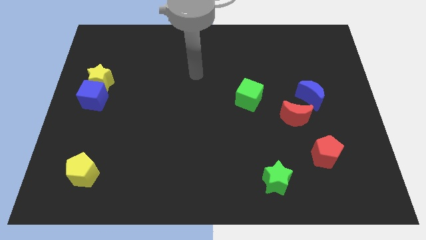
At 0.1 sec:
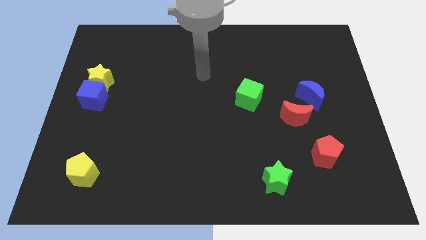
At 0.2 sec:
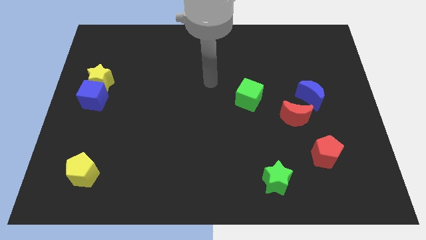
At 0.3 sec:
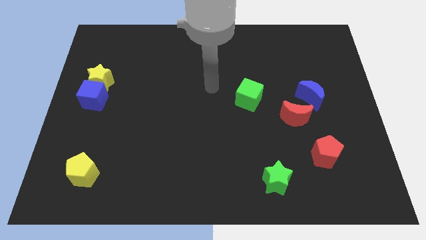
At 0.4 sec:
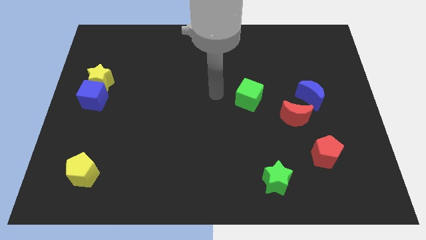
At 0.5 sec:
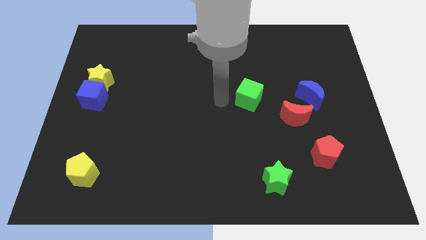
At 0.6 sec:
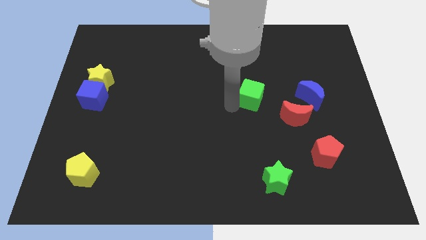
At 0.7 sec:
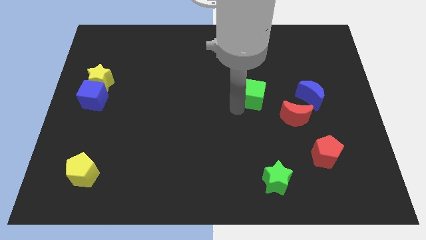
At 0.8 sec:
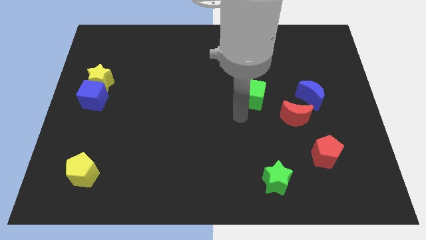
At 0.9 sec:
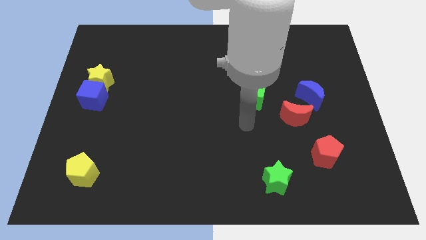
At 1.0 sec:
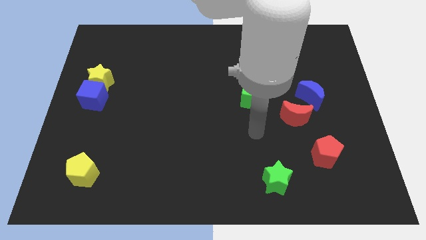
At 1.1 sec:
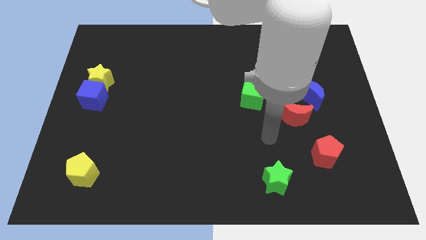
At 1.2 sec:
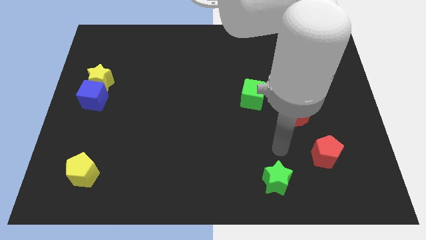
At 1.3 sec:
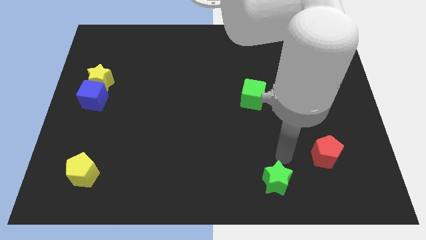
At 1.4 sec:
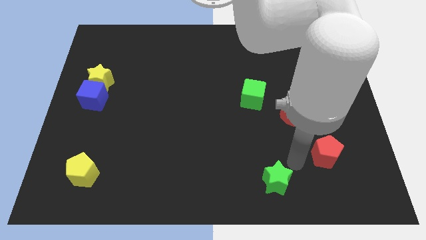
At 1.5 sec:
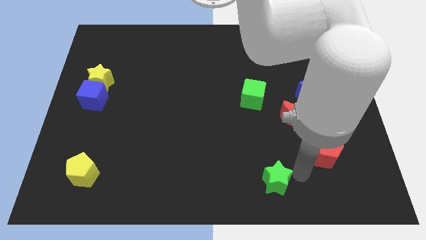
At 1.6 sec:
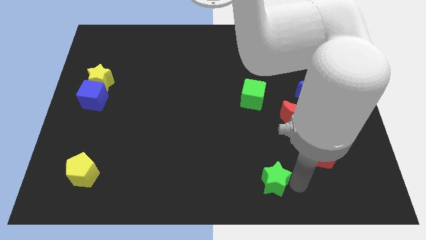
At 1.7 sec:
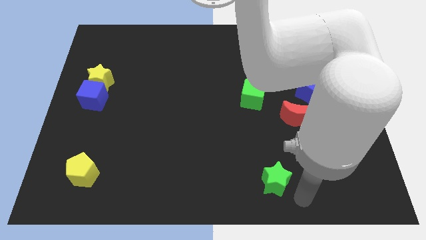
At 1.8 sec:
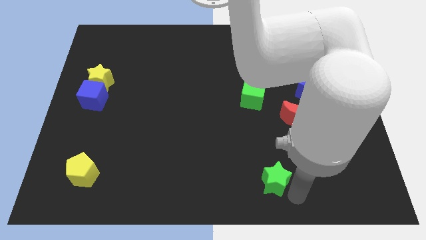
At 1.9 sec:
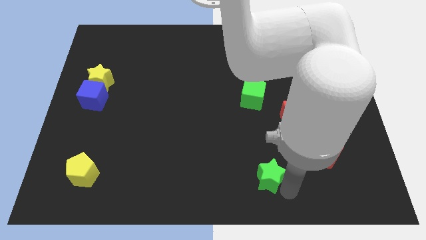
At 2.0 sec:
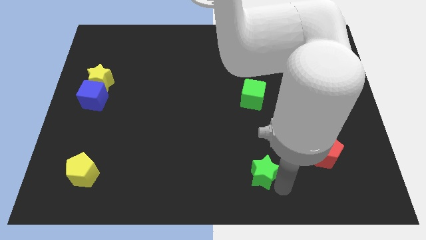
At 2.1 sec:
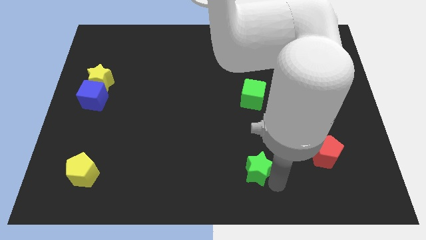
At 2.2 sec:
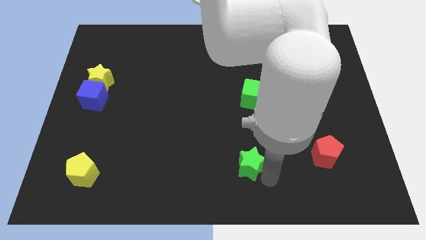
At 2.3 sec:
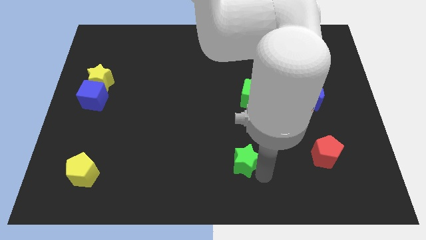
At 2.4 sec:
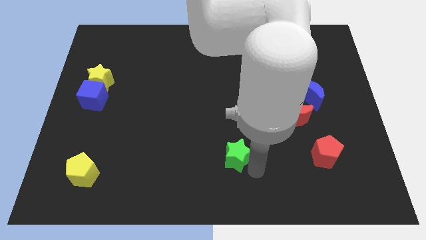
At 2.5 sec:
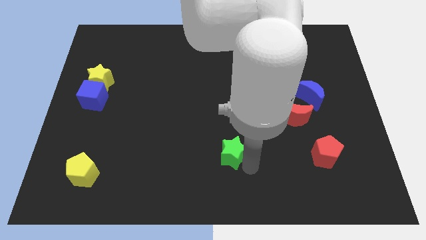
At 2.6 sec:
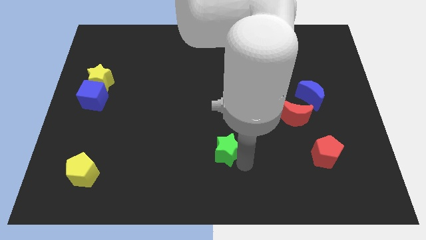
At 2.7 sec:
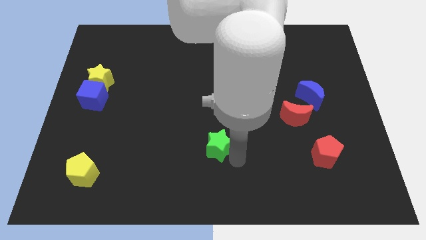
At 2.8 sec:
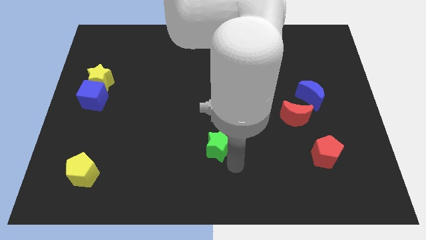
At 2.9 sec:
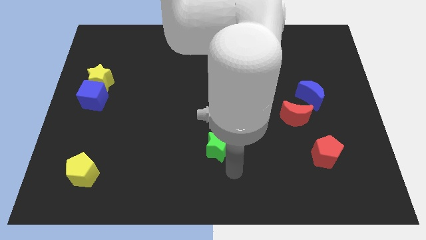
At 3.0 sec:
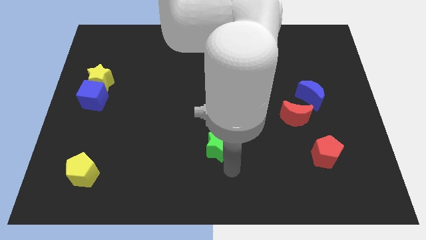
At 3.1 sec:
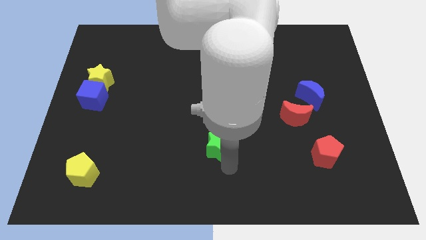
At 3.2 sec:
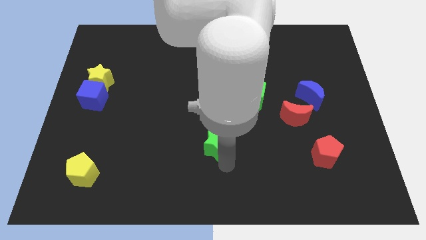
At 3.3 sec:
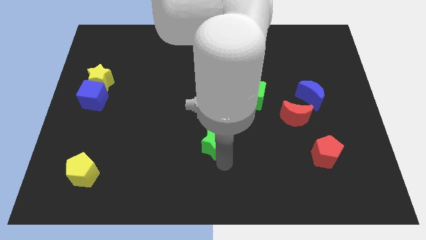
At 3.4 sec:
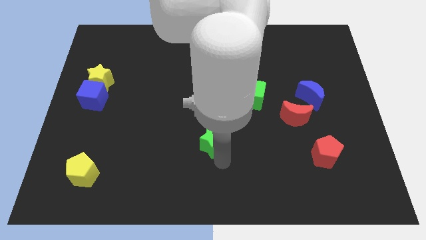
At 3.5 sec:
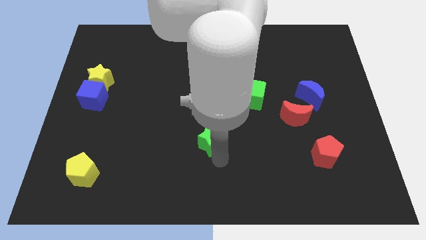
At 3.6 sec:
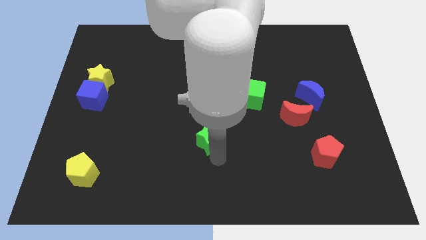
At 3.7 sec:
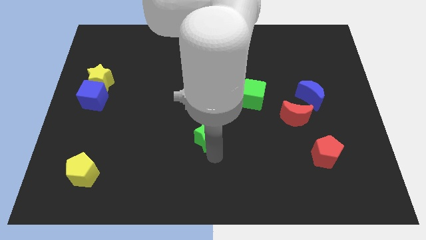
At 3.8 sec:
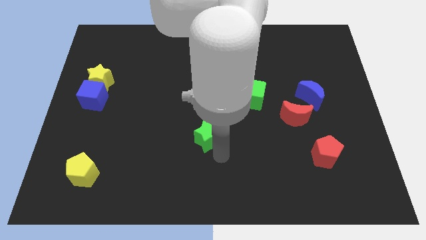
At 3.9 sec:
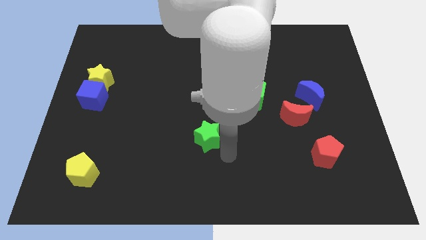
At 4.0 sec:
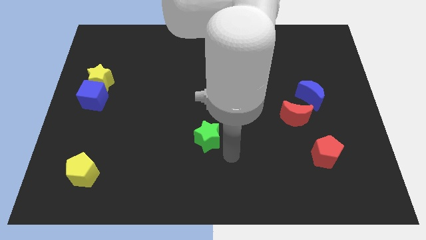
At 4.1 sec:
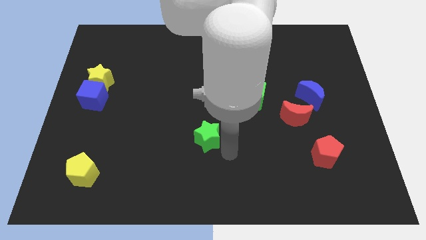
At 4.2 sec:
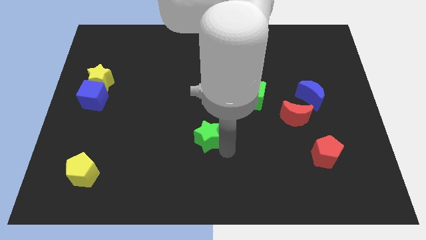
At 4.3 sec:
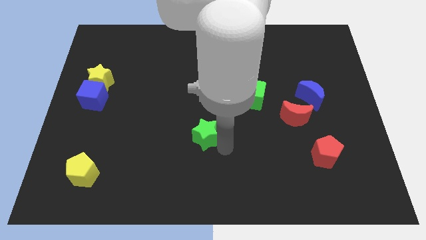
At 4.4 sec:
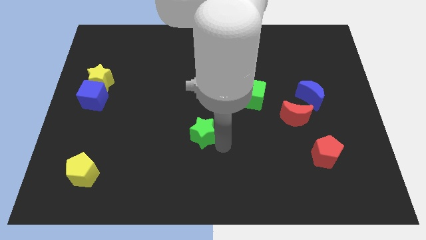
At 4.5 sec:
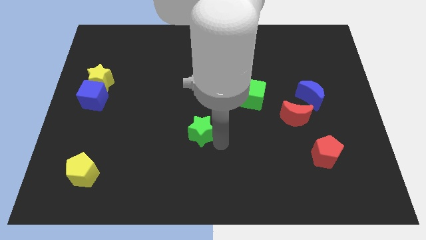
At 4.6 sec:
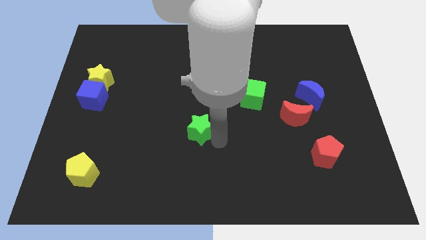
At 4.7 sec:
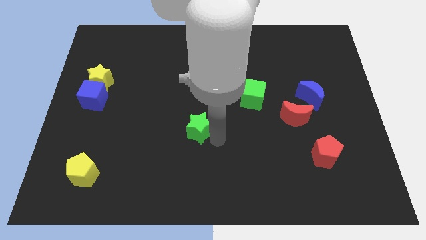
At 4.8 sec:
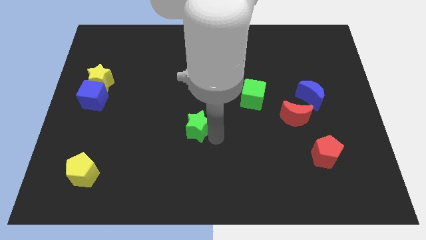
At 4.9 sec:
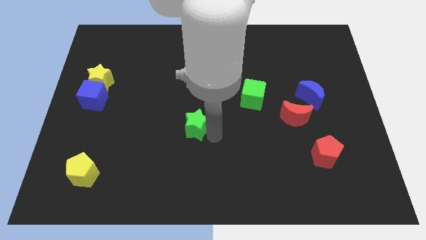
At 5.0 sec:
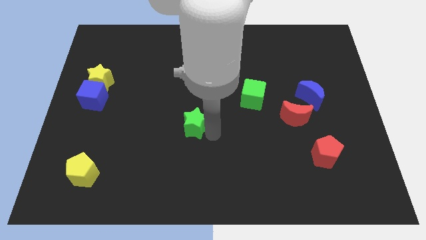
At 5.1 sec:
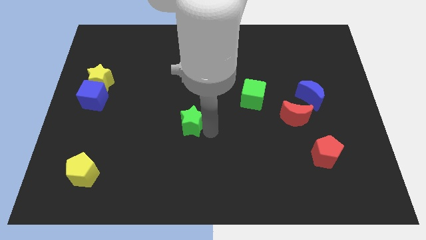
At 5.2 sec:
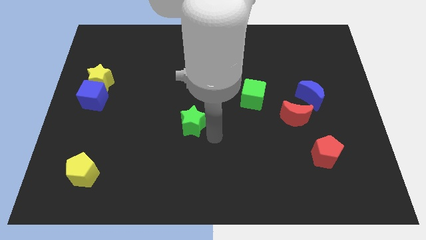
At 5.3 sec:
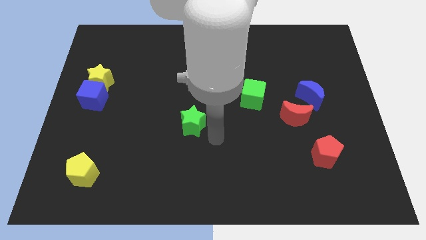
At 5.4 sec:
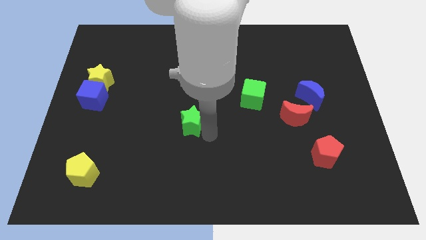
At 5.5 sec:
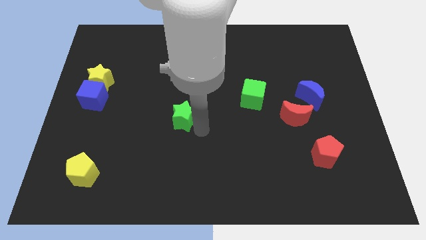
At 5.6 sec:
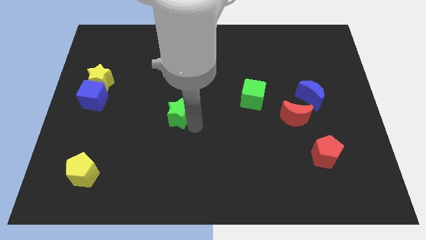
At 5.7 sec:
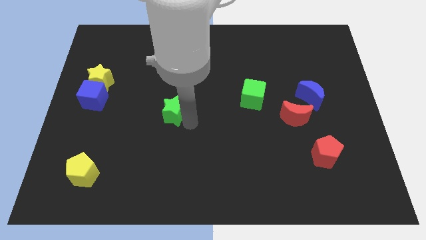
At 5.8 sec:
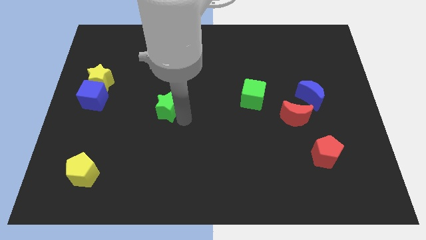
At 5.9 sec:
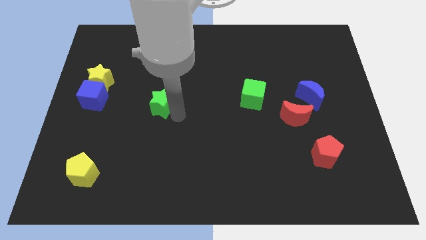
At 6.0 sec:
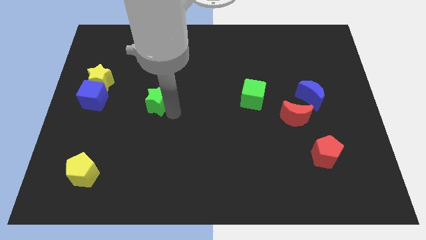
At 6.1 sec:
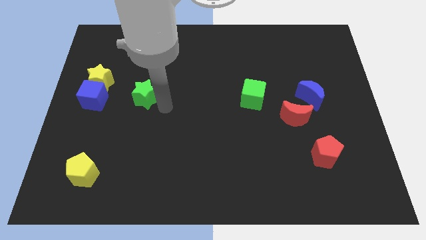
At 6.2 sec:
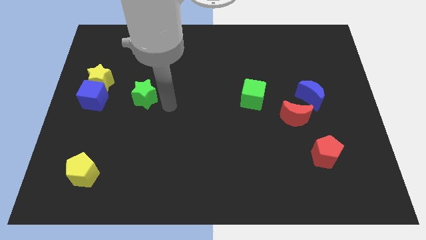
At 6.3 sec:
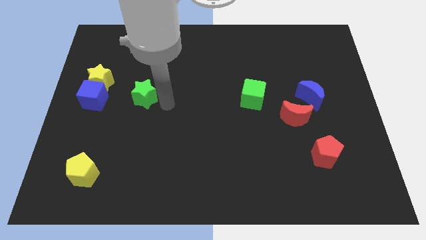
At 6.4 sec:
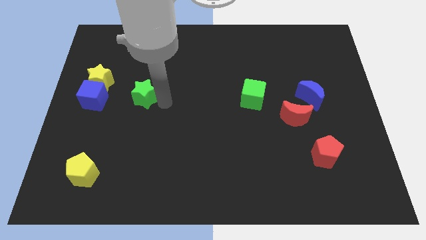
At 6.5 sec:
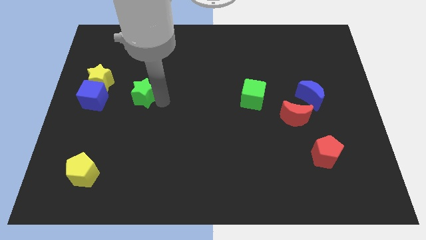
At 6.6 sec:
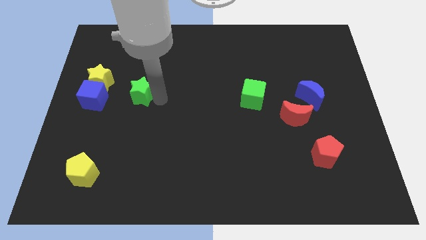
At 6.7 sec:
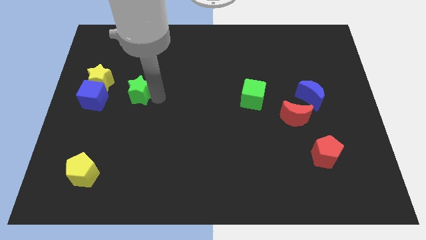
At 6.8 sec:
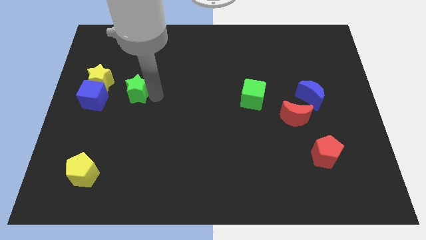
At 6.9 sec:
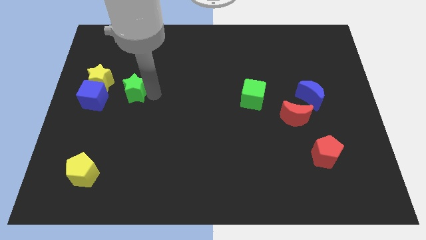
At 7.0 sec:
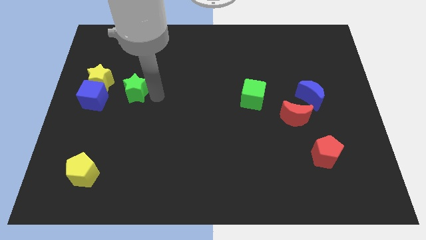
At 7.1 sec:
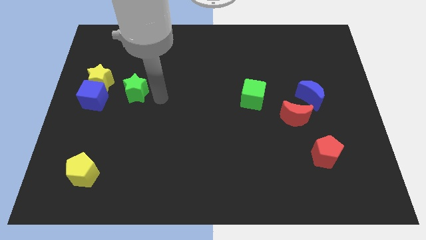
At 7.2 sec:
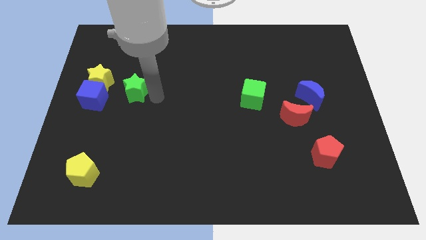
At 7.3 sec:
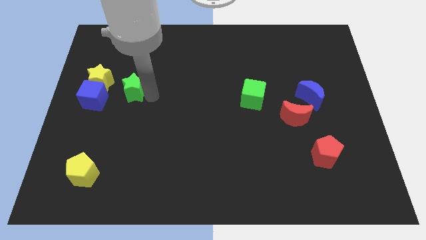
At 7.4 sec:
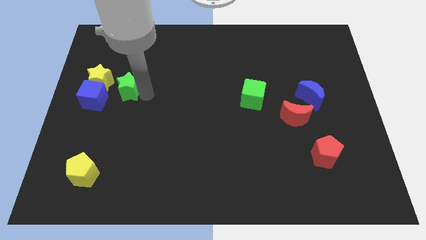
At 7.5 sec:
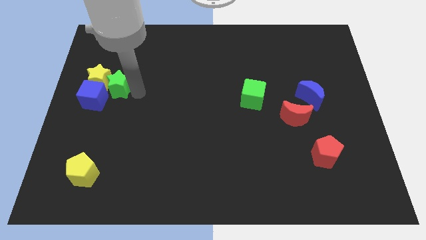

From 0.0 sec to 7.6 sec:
push the green star towards the yellow star
